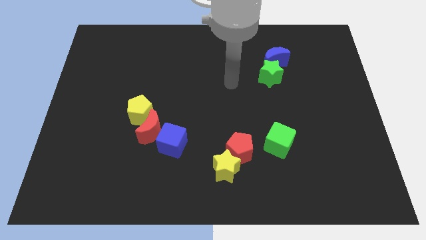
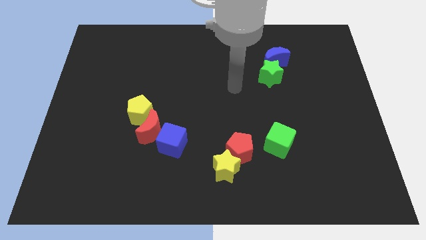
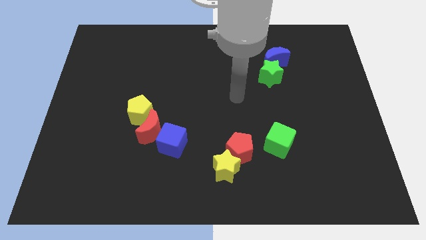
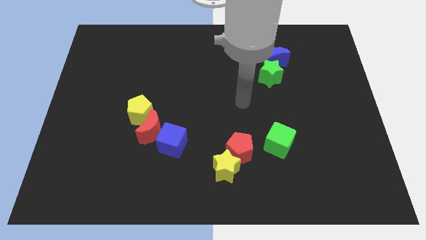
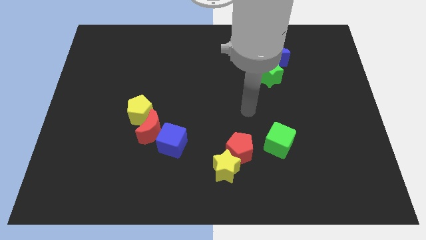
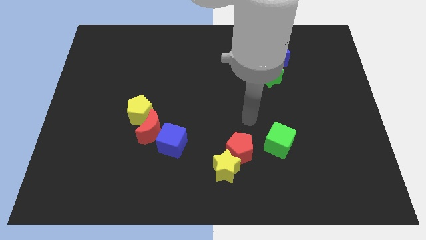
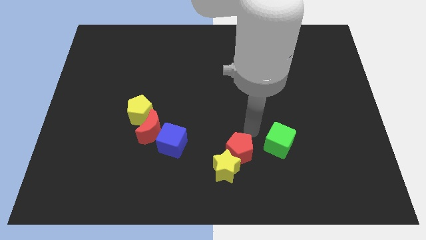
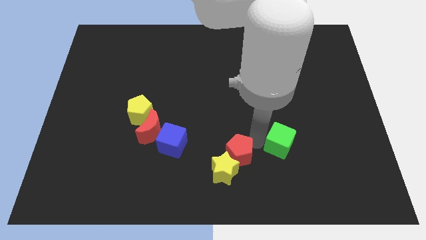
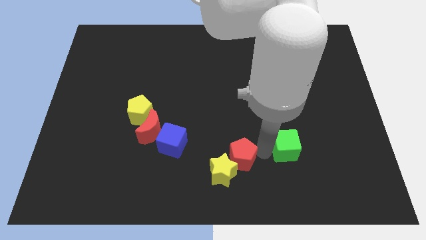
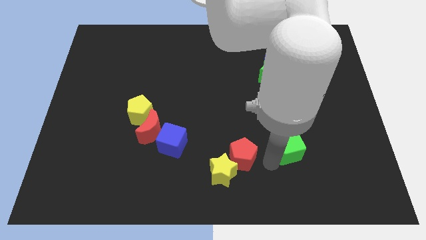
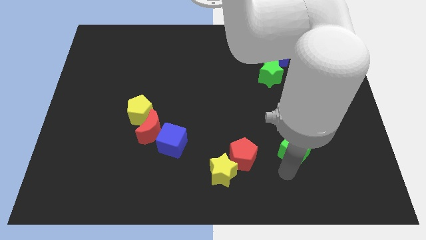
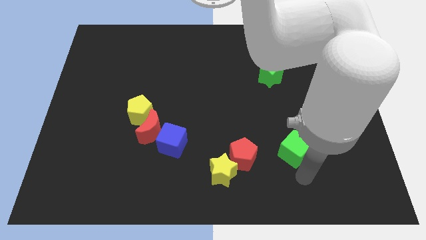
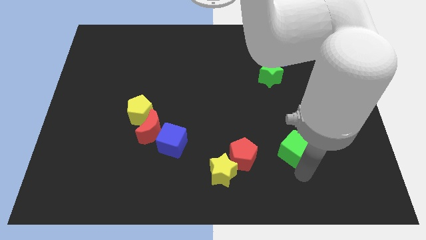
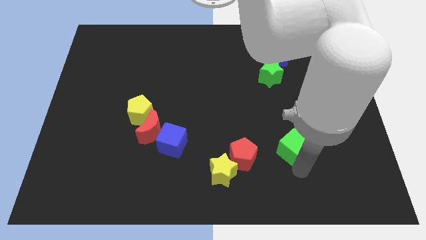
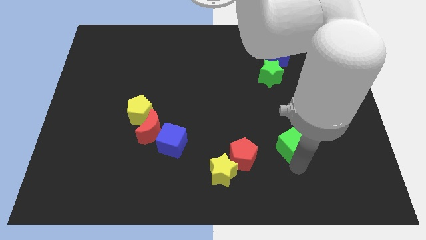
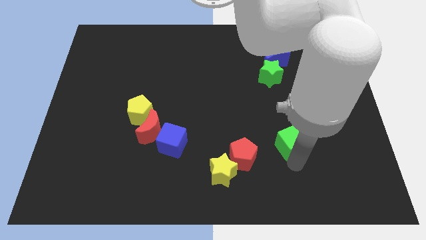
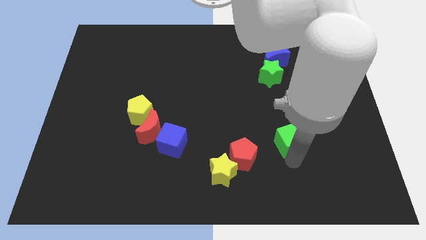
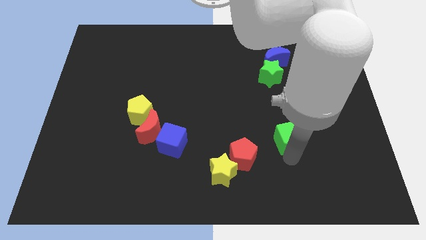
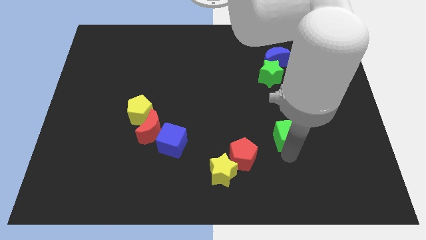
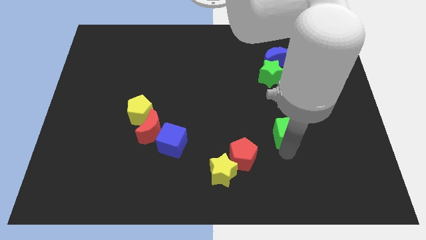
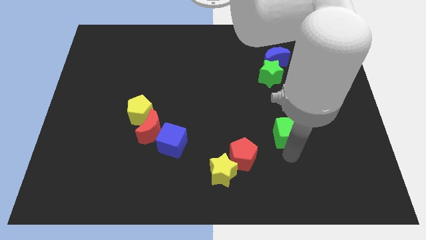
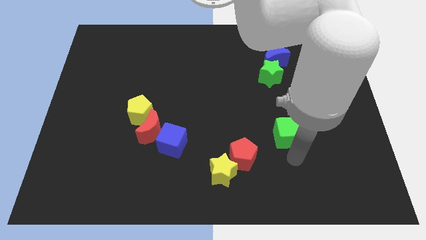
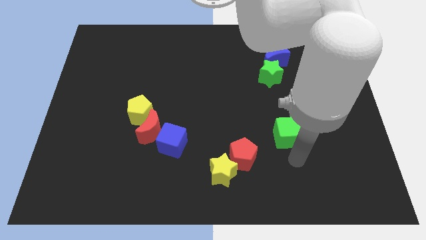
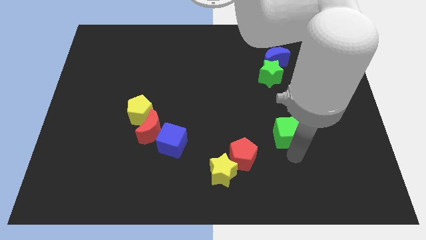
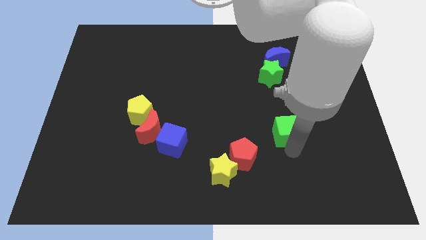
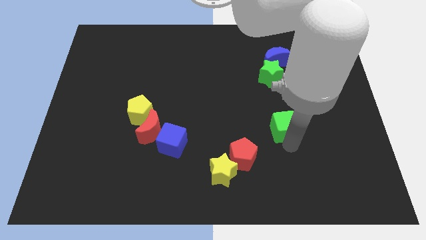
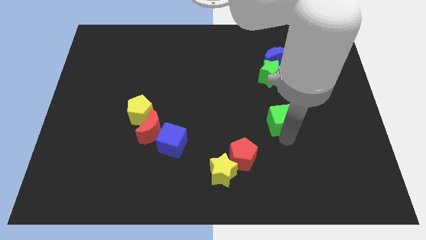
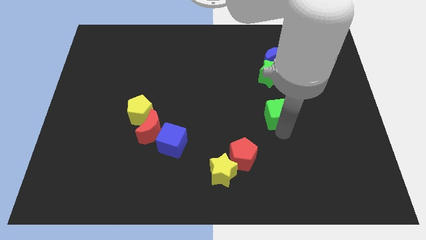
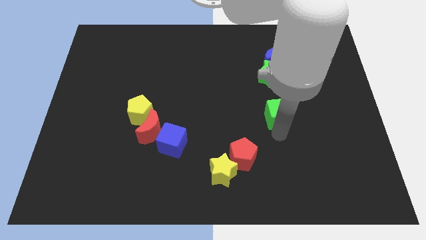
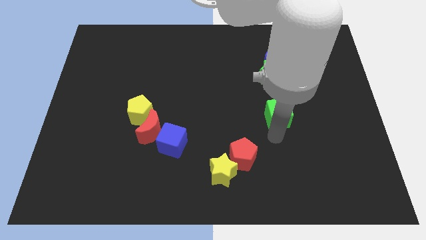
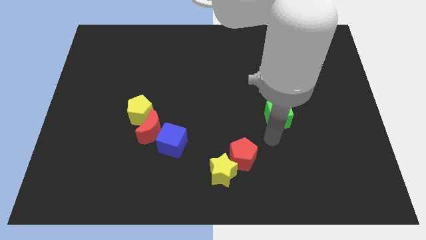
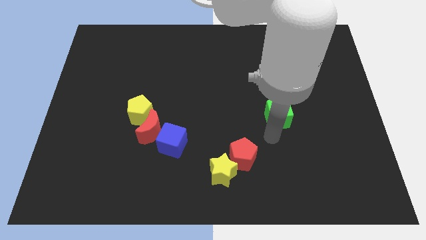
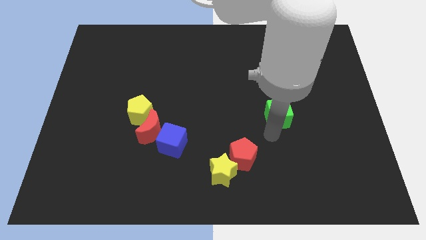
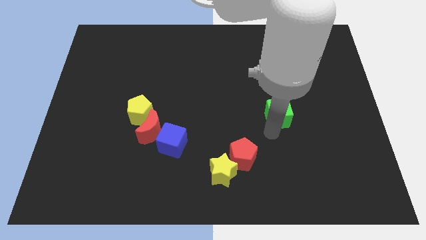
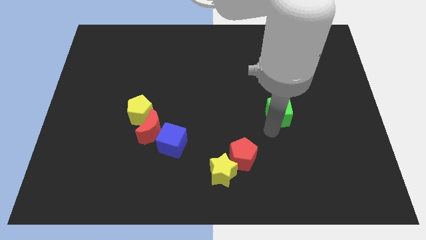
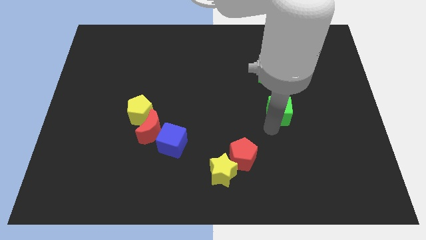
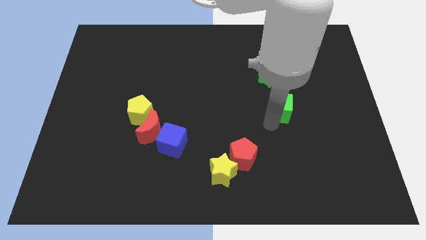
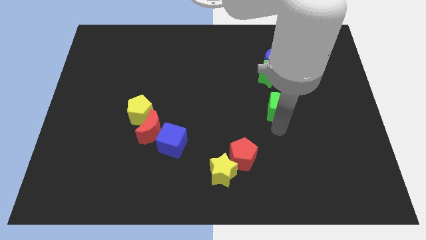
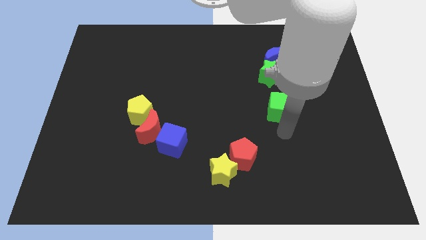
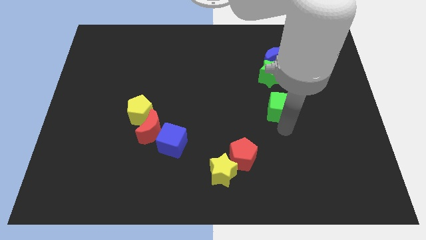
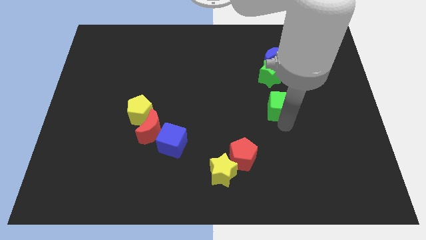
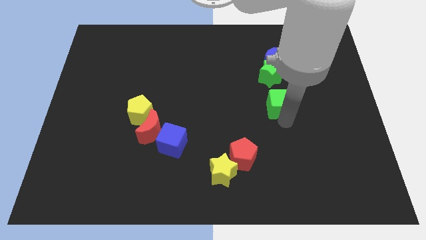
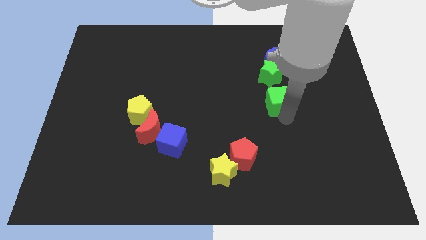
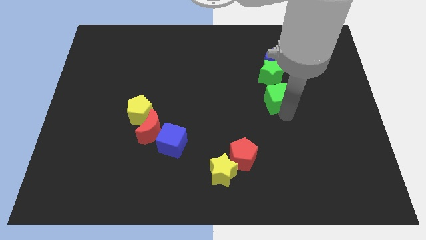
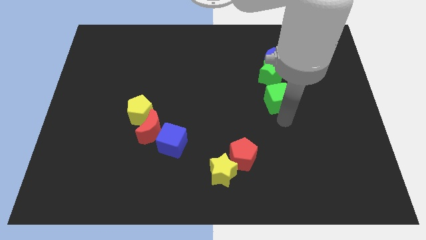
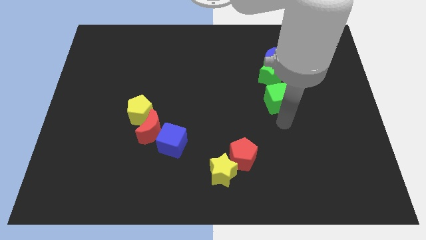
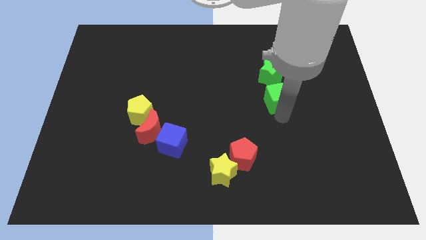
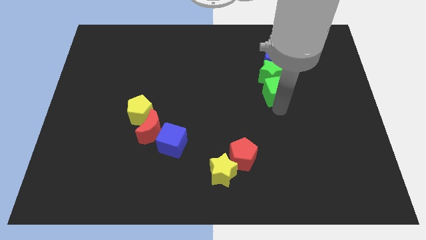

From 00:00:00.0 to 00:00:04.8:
slide the green cube to the green star

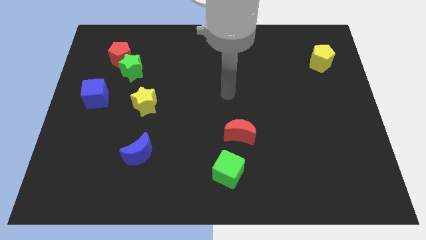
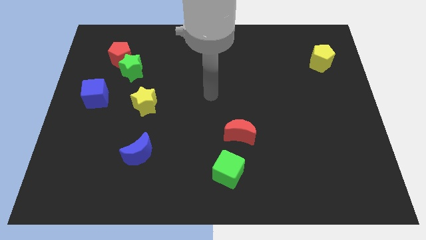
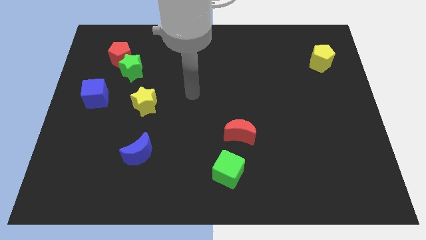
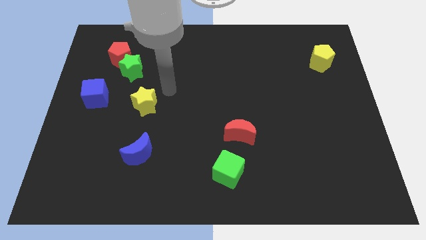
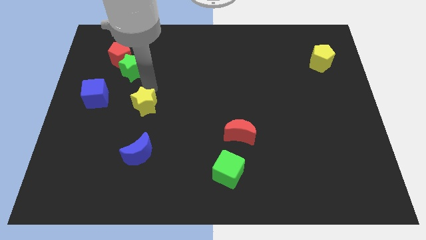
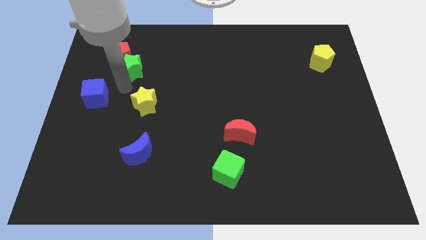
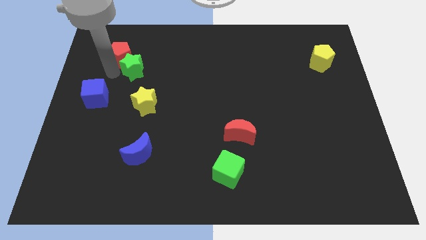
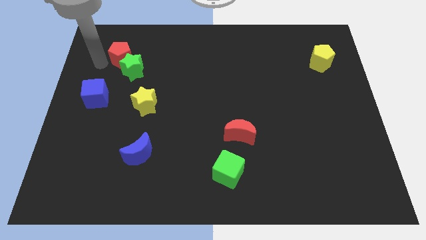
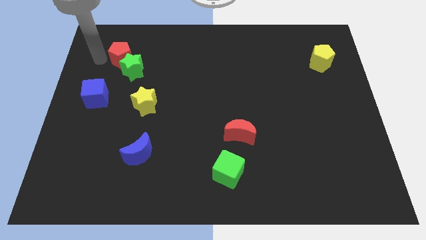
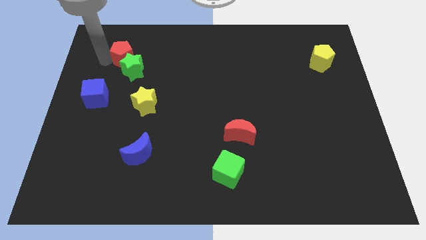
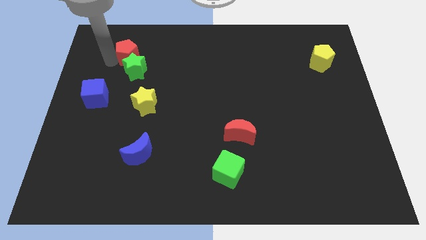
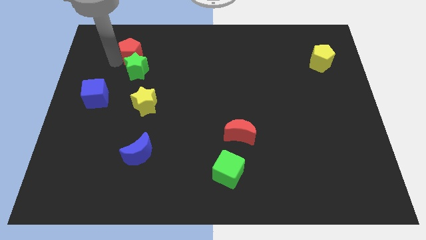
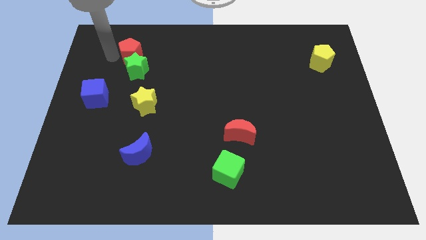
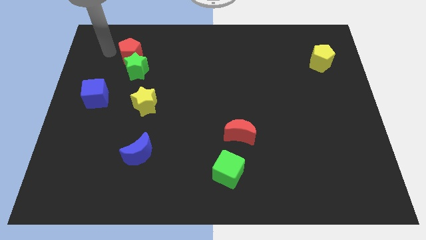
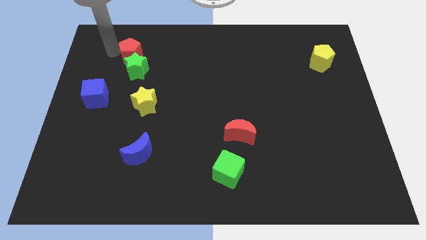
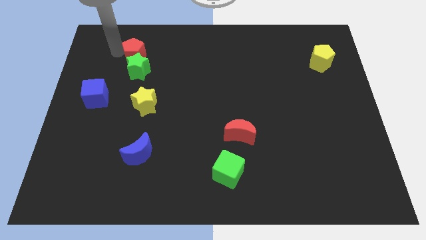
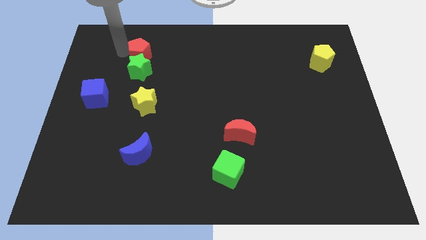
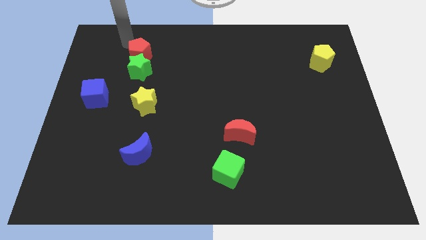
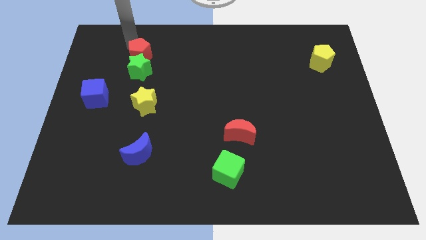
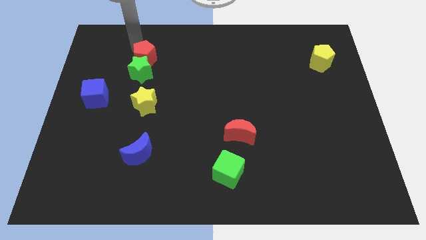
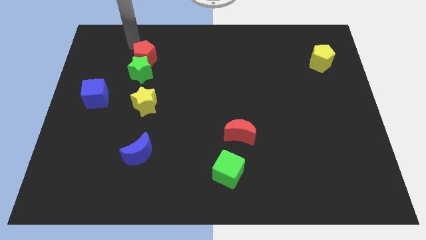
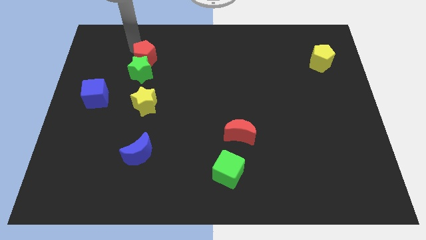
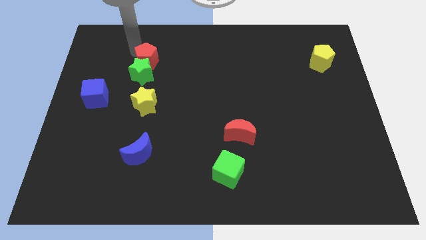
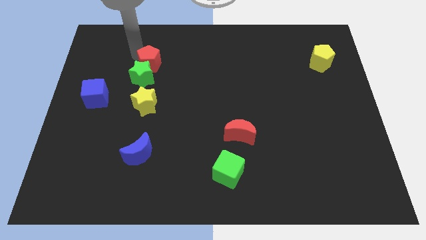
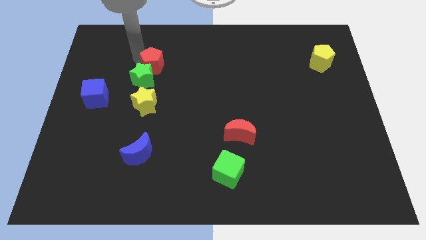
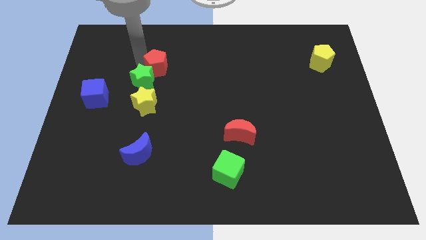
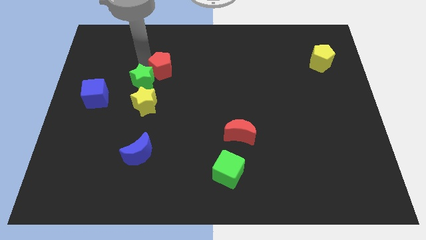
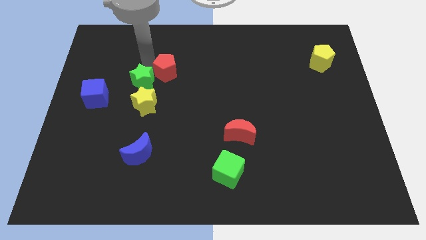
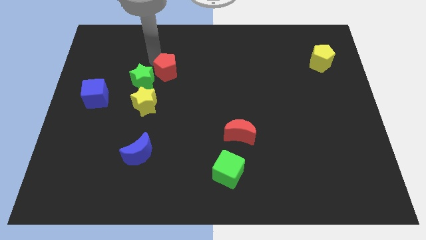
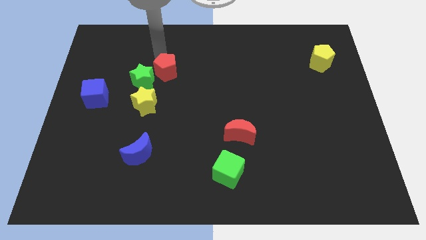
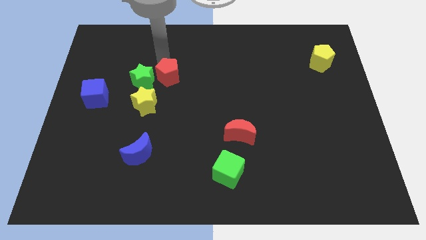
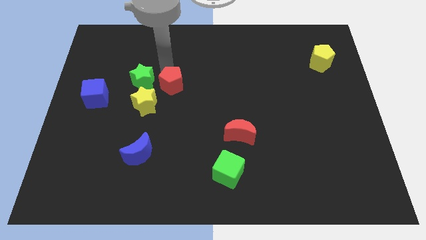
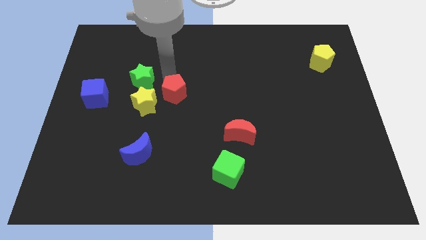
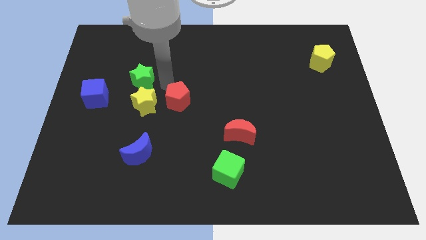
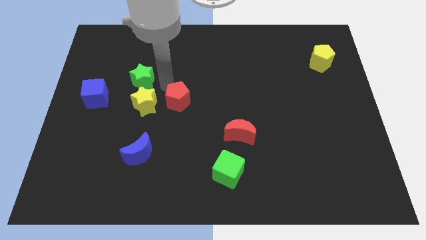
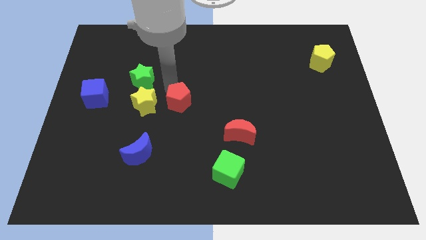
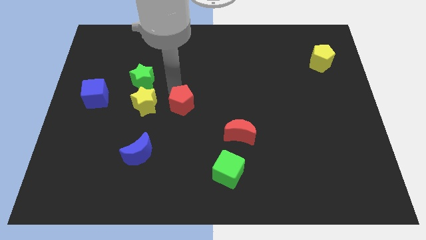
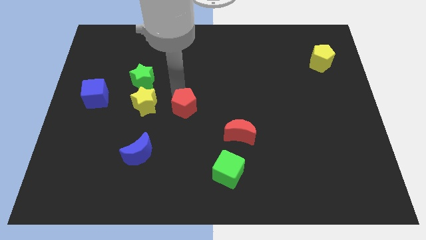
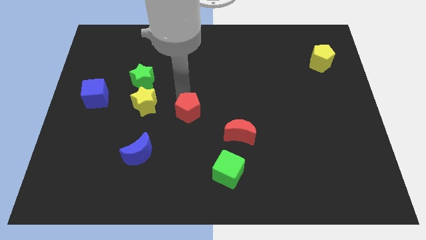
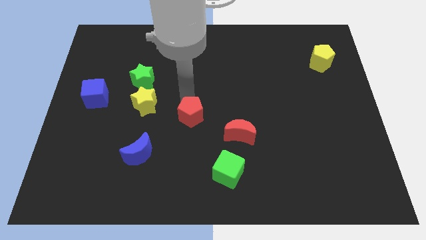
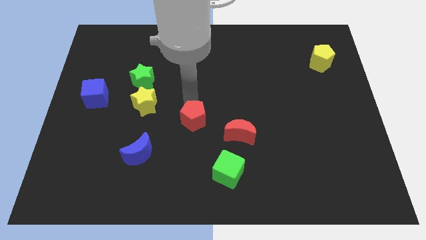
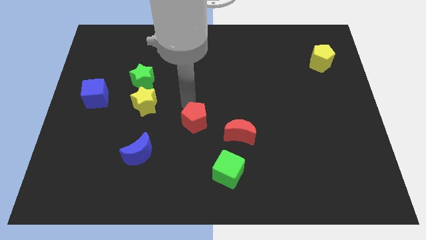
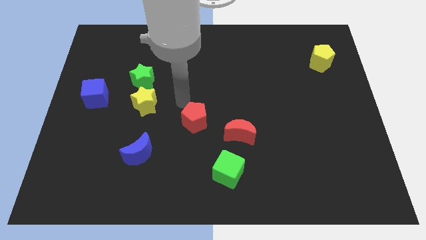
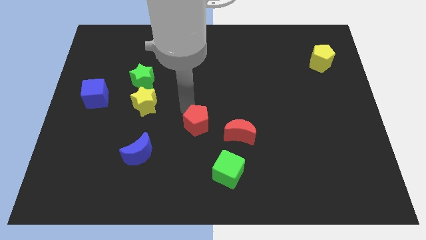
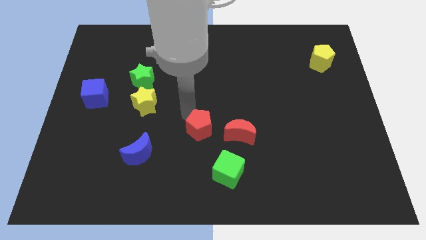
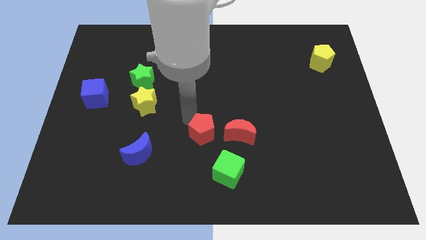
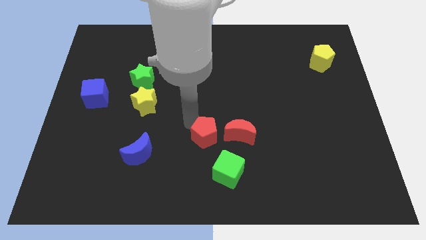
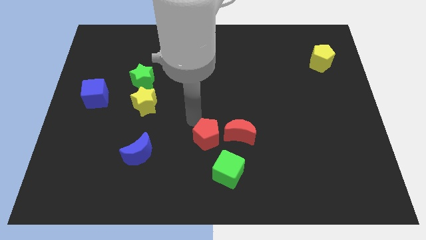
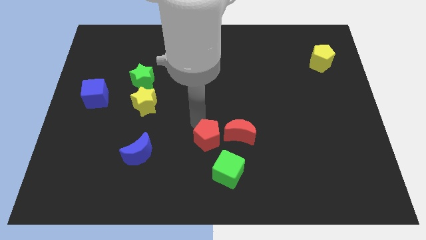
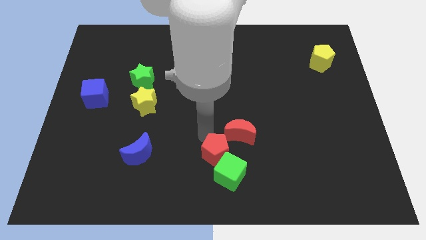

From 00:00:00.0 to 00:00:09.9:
put the red pentagon close to the green cube
